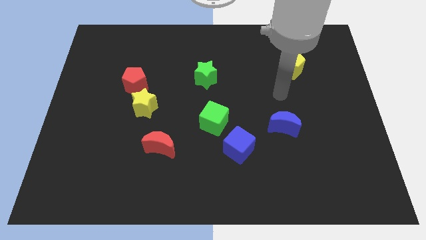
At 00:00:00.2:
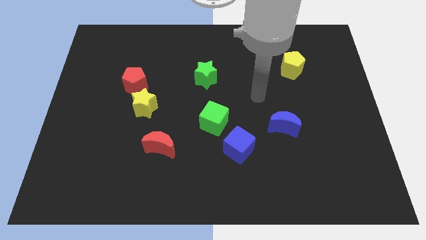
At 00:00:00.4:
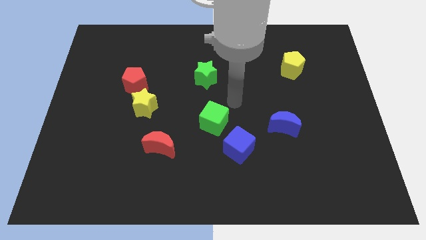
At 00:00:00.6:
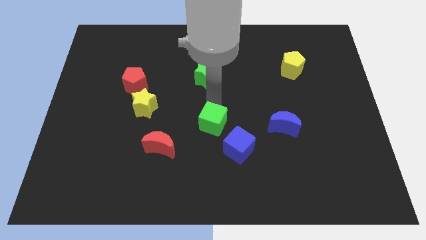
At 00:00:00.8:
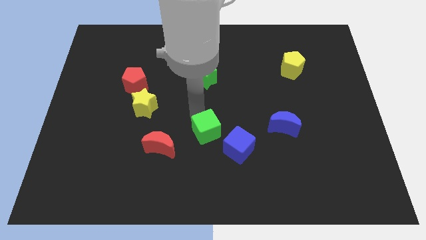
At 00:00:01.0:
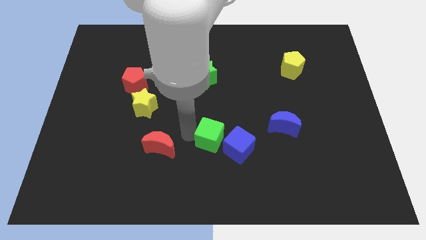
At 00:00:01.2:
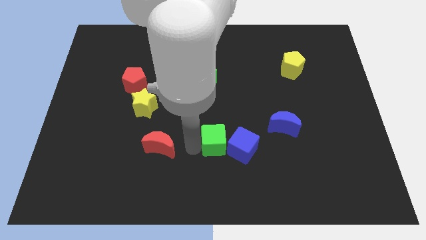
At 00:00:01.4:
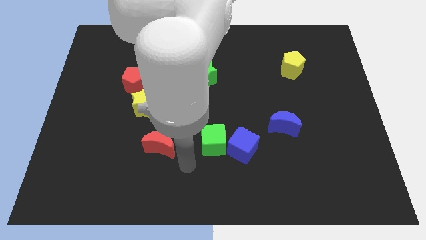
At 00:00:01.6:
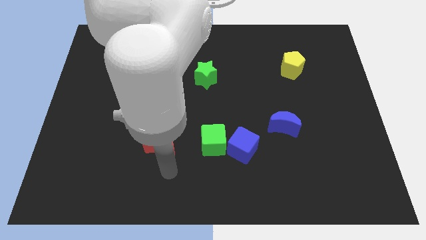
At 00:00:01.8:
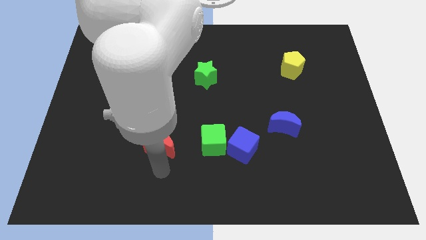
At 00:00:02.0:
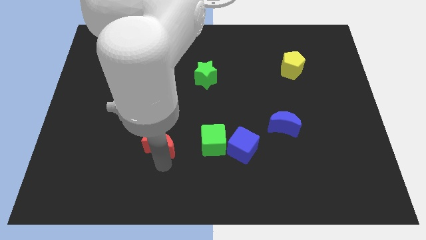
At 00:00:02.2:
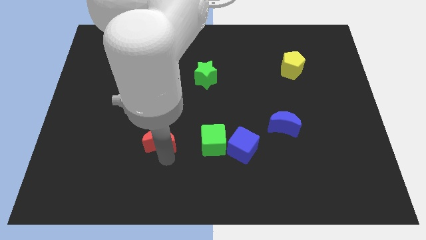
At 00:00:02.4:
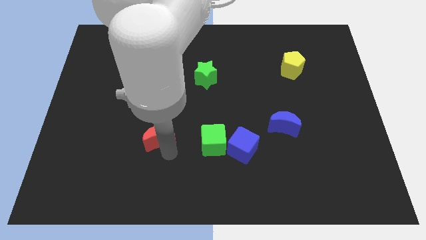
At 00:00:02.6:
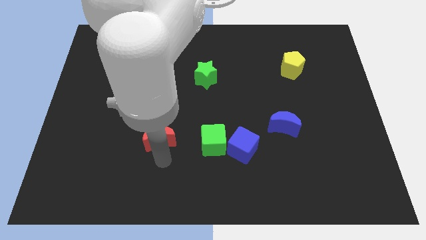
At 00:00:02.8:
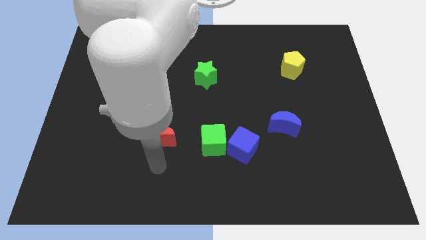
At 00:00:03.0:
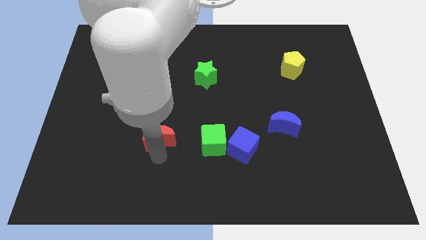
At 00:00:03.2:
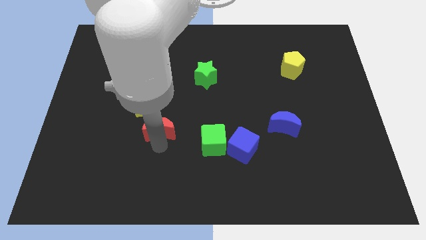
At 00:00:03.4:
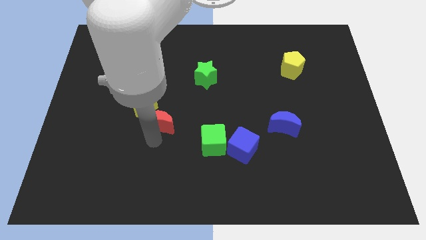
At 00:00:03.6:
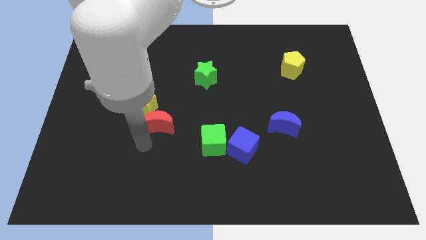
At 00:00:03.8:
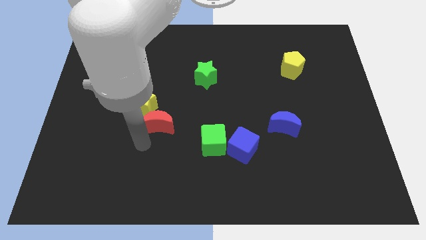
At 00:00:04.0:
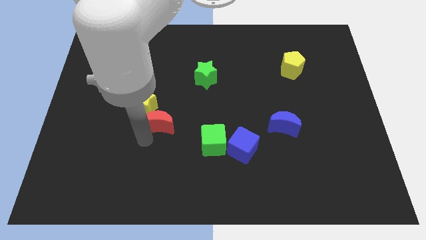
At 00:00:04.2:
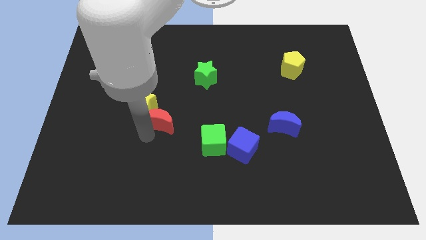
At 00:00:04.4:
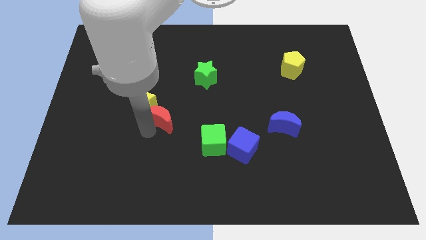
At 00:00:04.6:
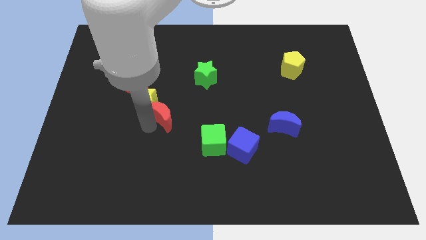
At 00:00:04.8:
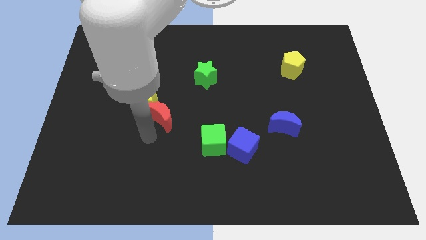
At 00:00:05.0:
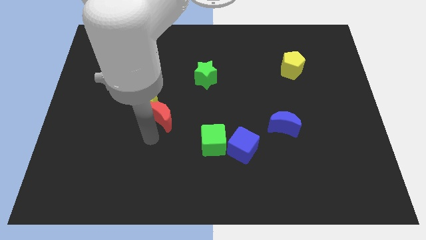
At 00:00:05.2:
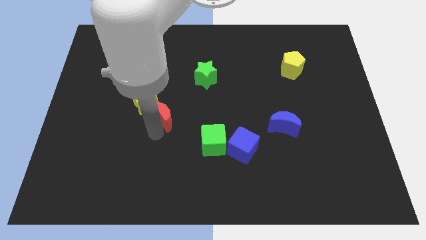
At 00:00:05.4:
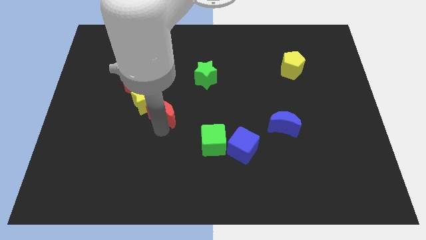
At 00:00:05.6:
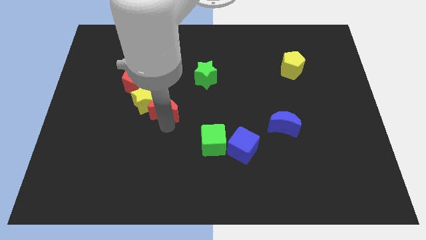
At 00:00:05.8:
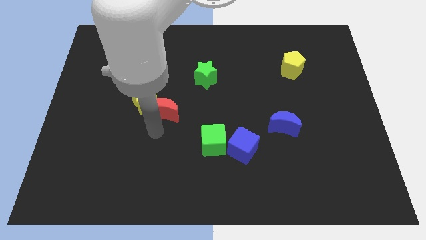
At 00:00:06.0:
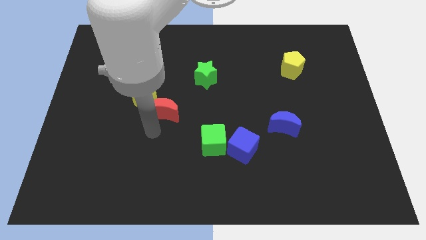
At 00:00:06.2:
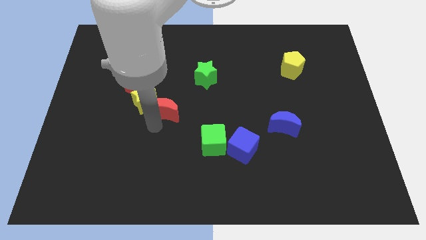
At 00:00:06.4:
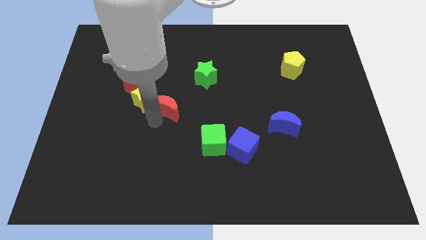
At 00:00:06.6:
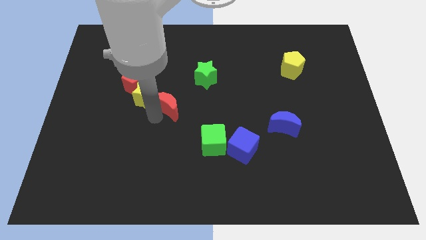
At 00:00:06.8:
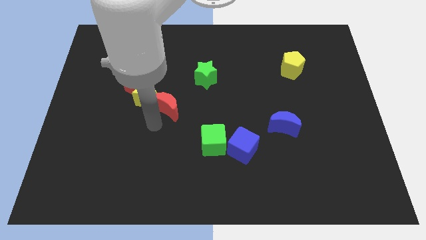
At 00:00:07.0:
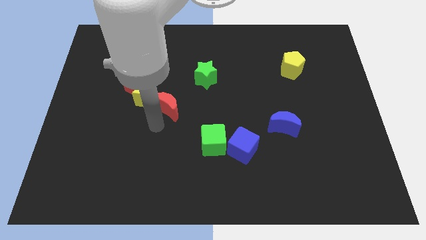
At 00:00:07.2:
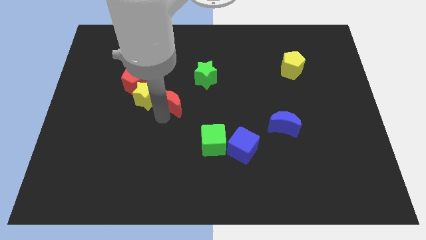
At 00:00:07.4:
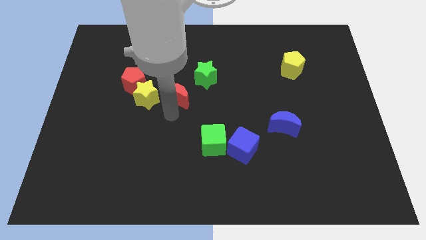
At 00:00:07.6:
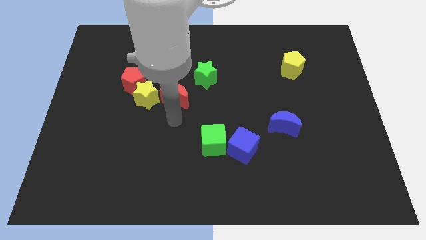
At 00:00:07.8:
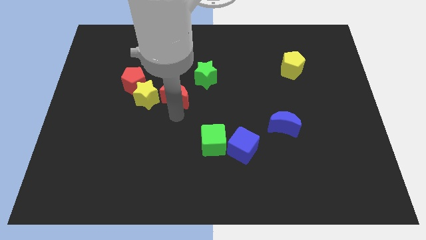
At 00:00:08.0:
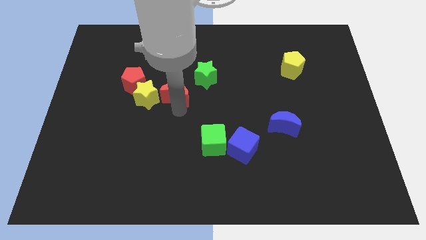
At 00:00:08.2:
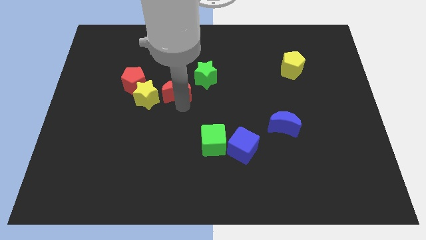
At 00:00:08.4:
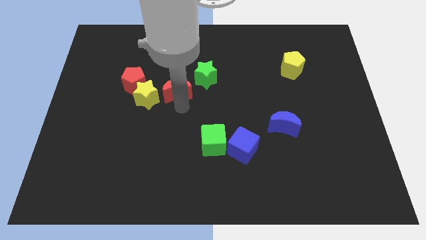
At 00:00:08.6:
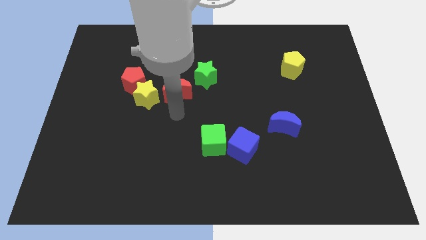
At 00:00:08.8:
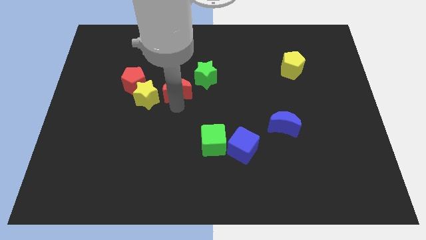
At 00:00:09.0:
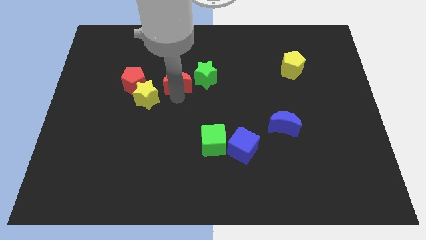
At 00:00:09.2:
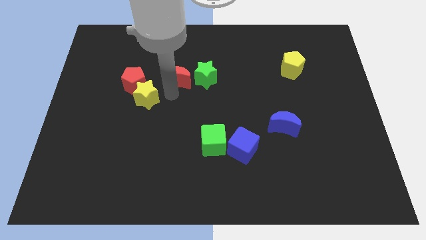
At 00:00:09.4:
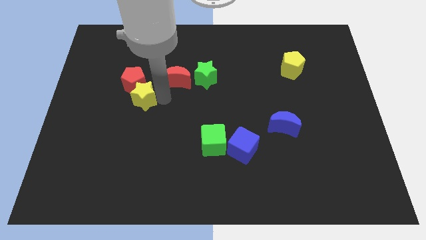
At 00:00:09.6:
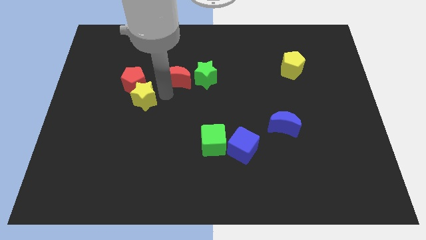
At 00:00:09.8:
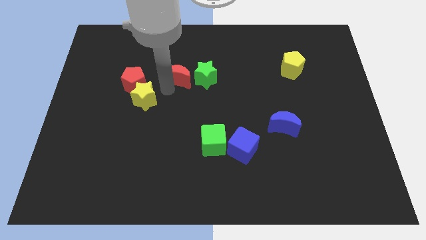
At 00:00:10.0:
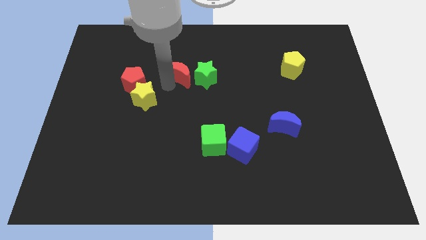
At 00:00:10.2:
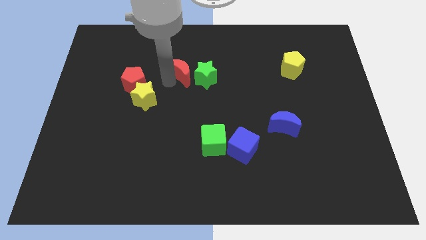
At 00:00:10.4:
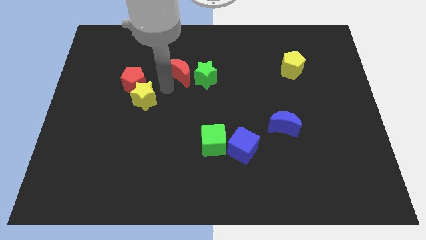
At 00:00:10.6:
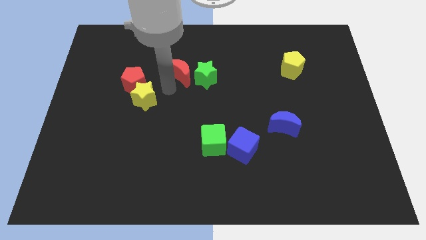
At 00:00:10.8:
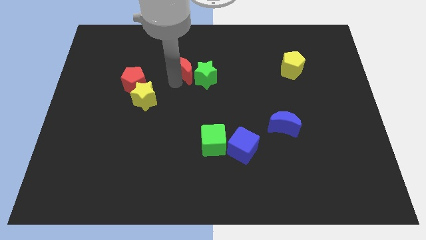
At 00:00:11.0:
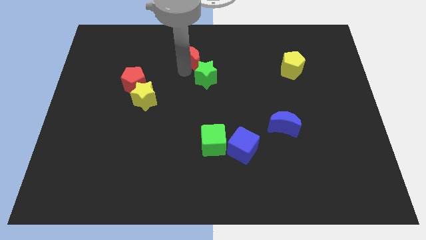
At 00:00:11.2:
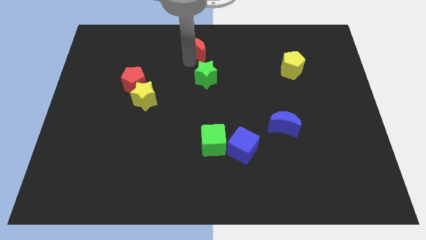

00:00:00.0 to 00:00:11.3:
put the red moon to the towards your base
